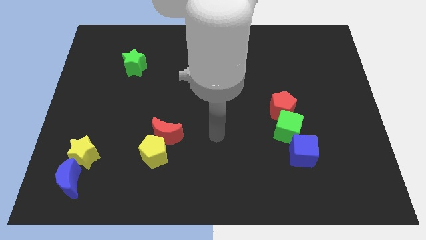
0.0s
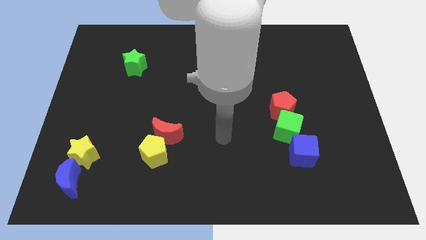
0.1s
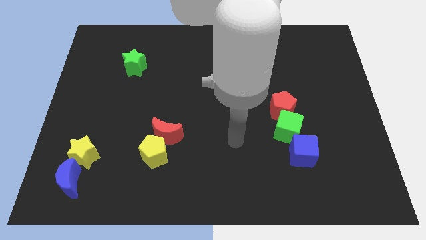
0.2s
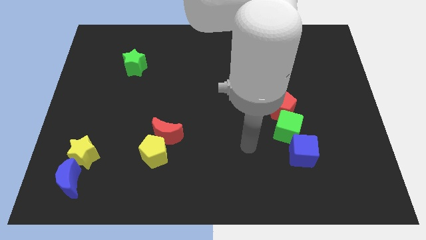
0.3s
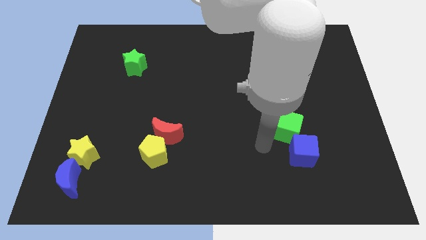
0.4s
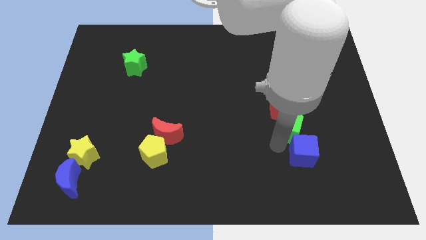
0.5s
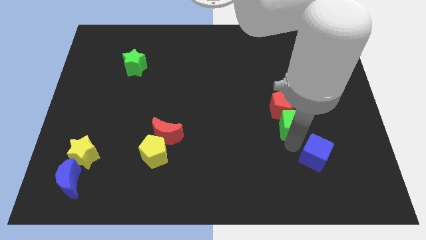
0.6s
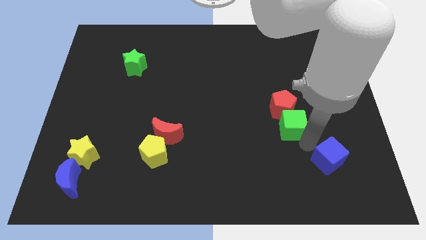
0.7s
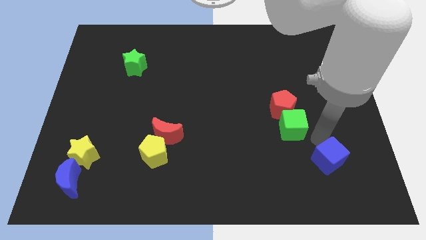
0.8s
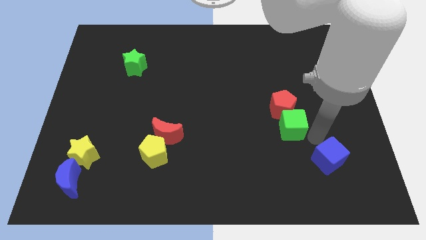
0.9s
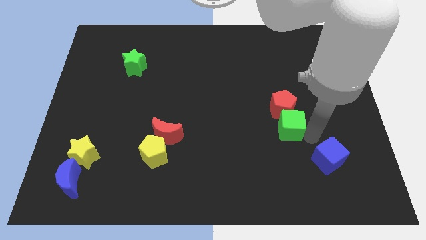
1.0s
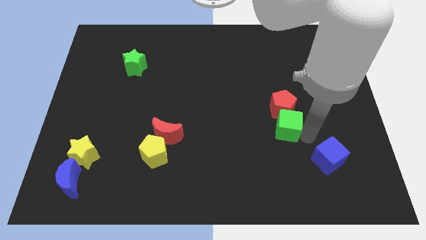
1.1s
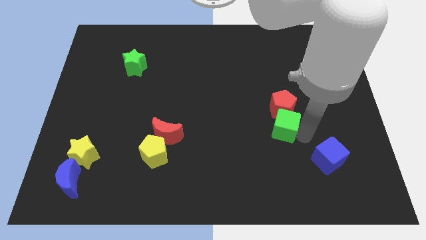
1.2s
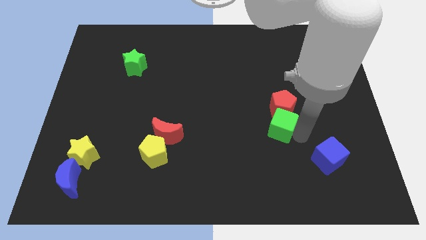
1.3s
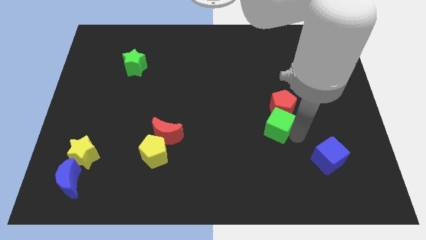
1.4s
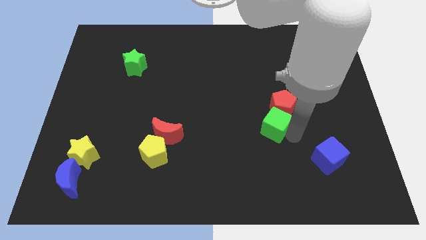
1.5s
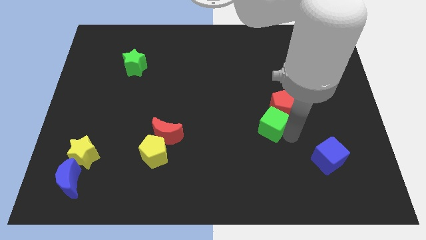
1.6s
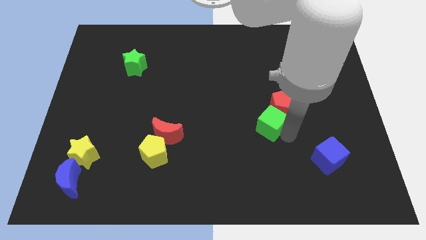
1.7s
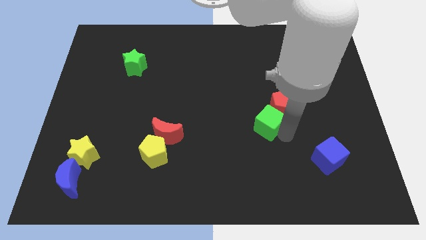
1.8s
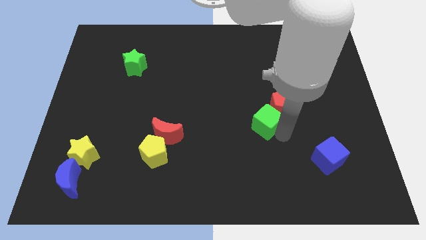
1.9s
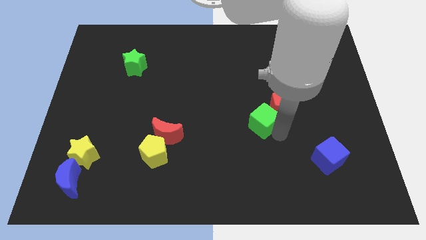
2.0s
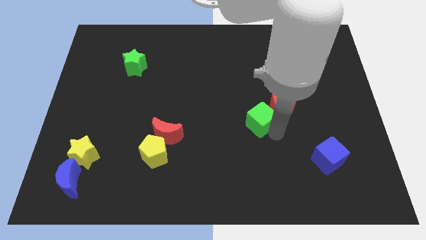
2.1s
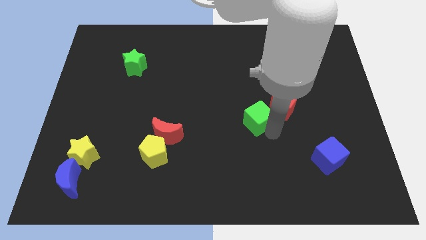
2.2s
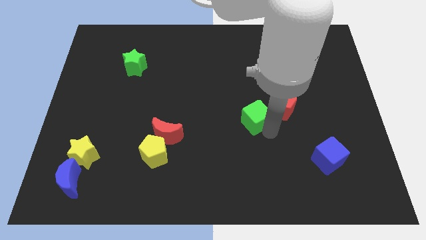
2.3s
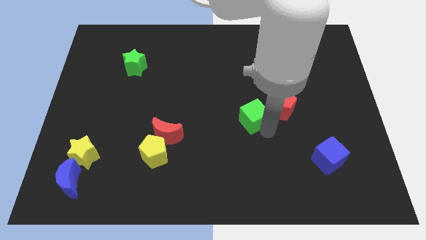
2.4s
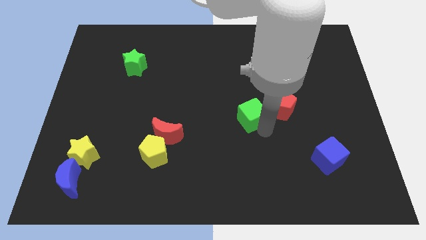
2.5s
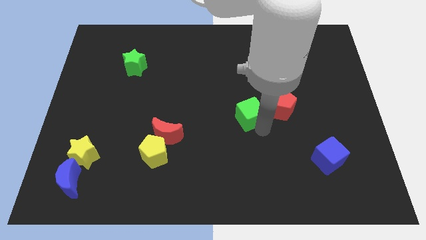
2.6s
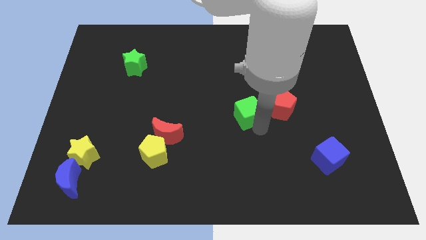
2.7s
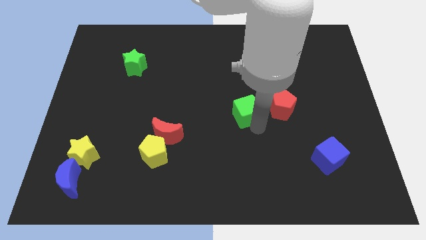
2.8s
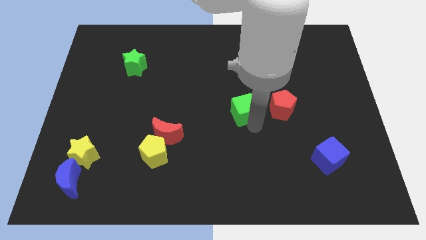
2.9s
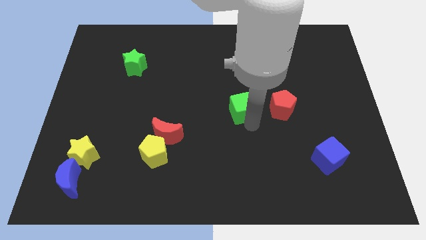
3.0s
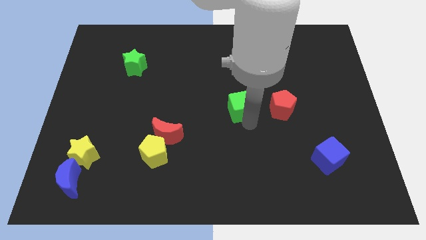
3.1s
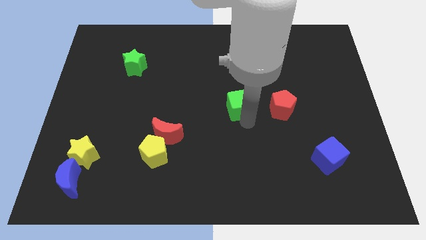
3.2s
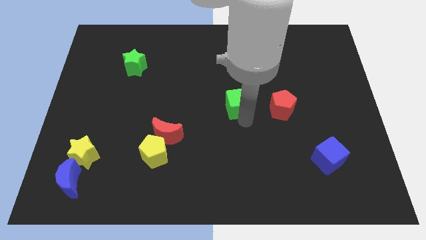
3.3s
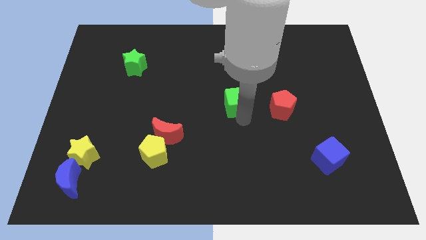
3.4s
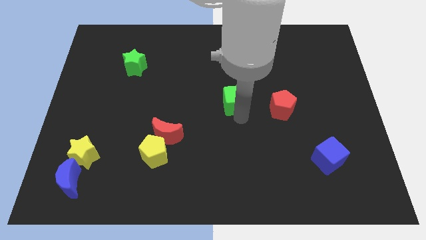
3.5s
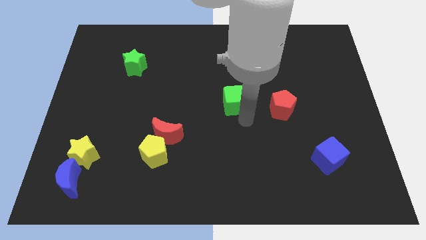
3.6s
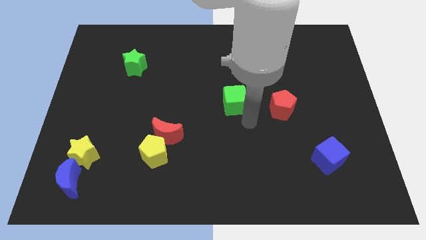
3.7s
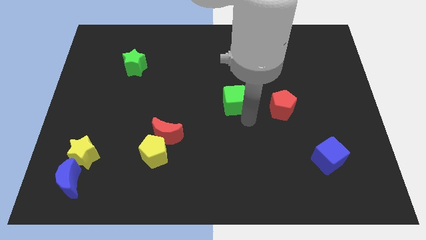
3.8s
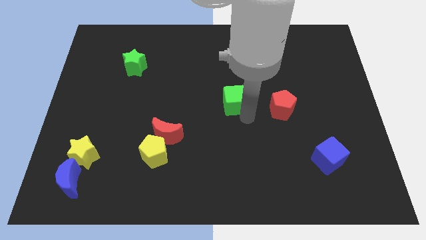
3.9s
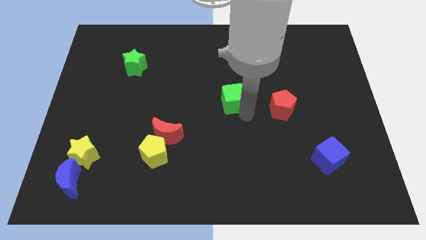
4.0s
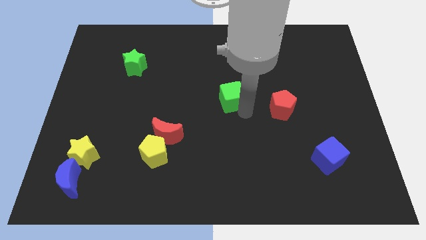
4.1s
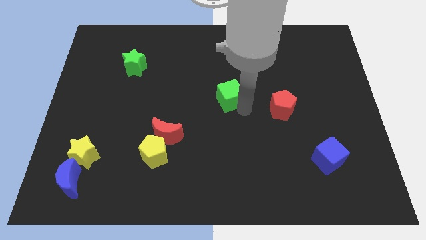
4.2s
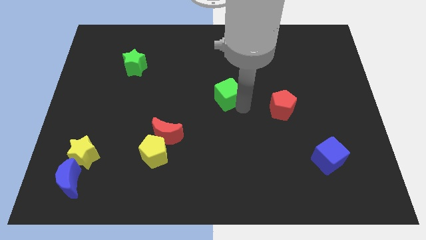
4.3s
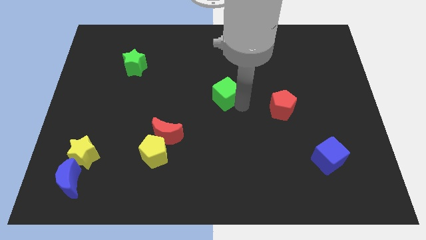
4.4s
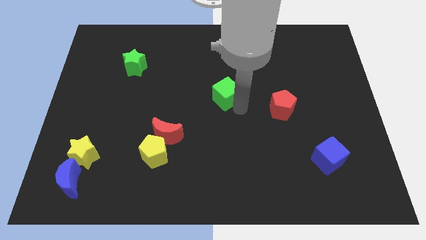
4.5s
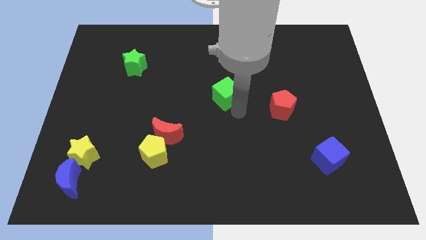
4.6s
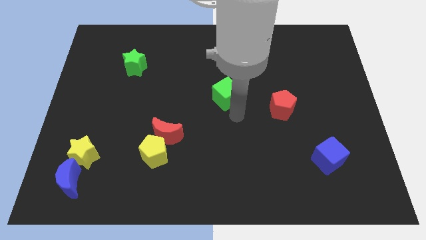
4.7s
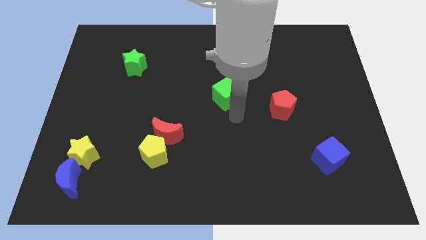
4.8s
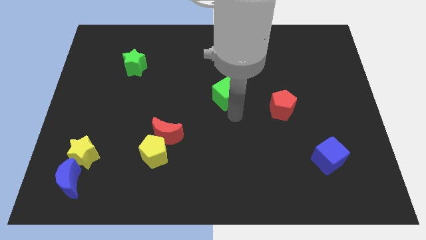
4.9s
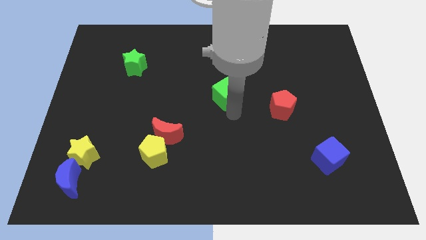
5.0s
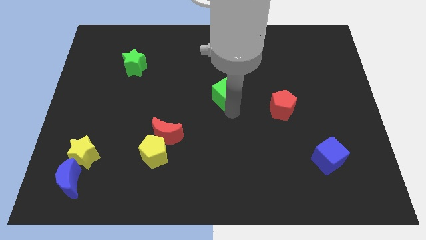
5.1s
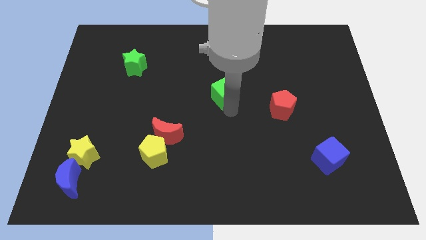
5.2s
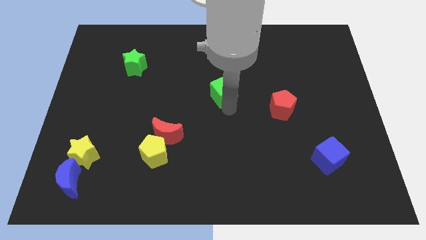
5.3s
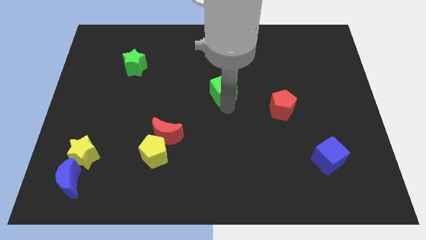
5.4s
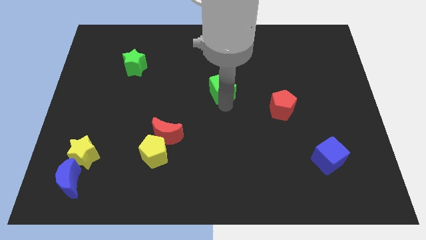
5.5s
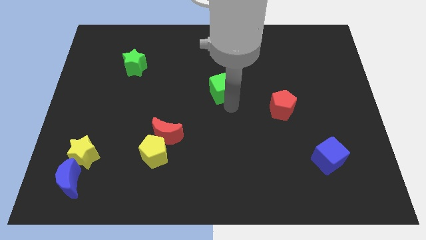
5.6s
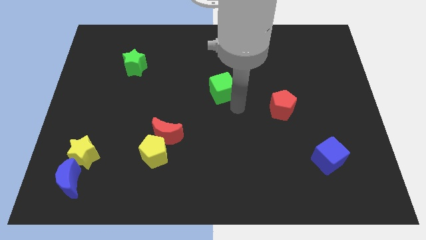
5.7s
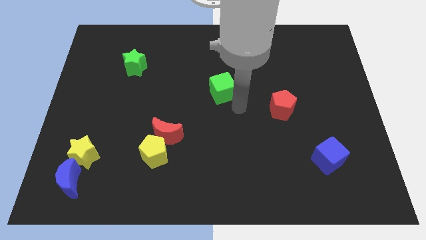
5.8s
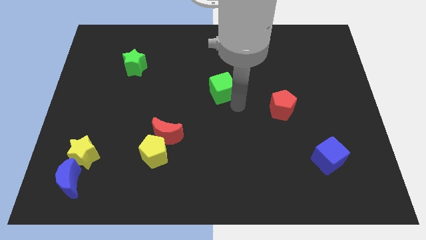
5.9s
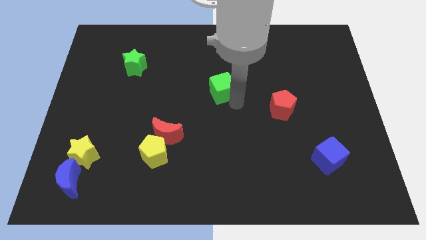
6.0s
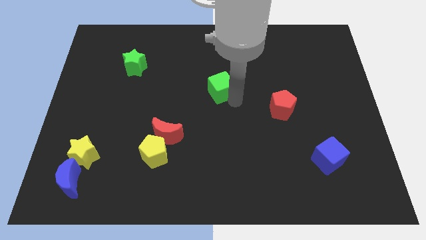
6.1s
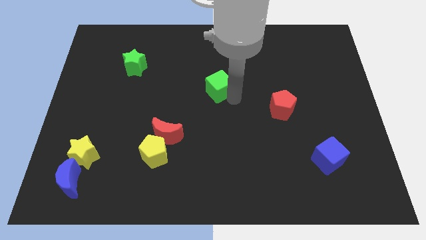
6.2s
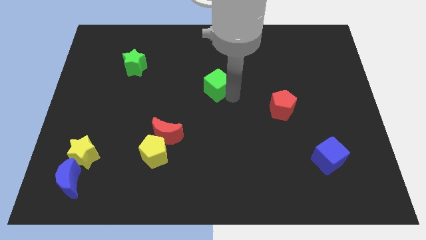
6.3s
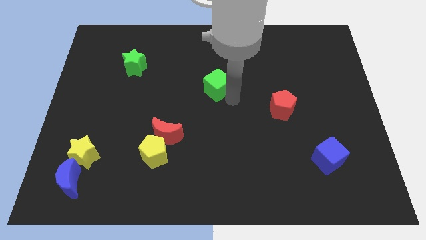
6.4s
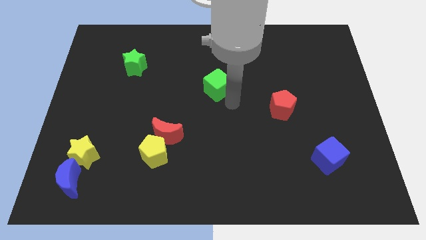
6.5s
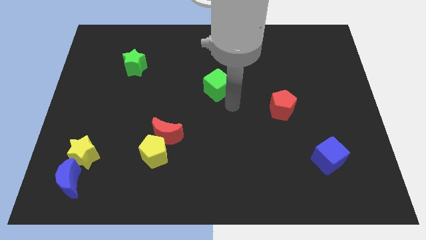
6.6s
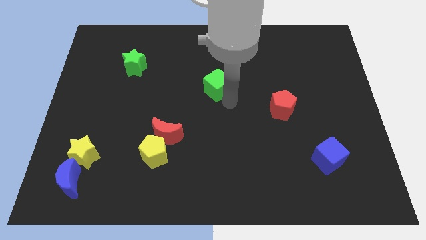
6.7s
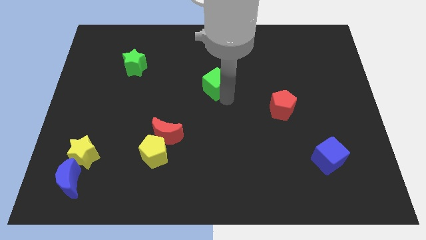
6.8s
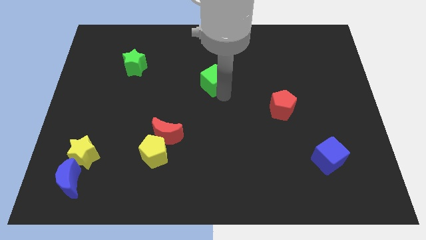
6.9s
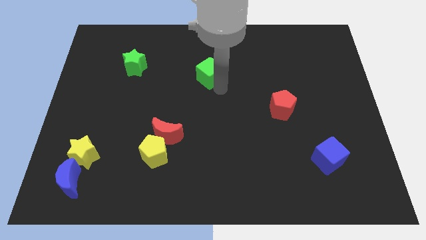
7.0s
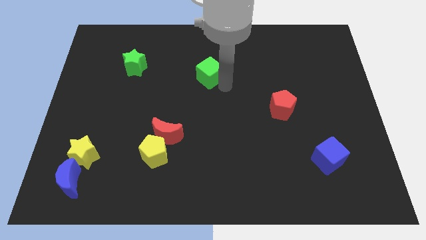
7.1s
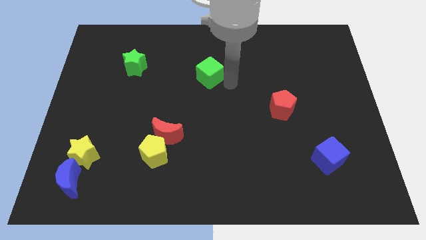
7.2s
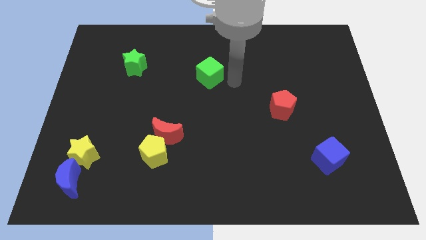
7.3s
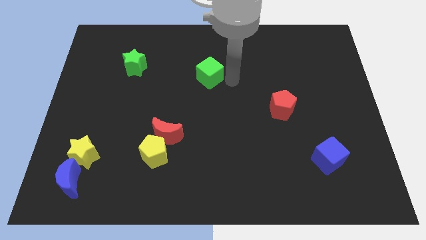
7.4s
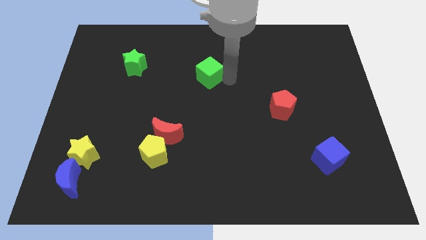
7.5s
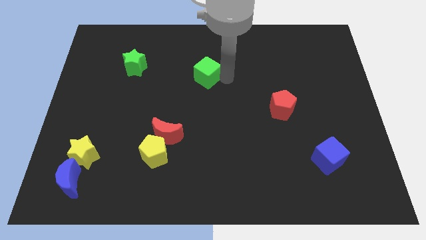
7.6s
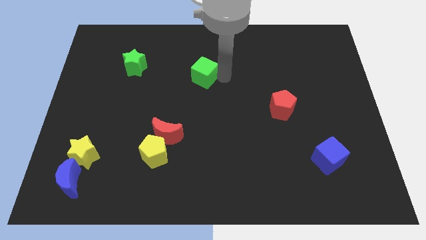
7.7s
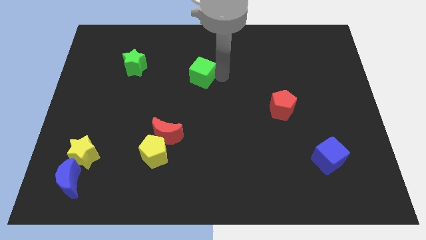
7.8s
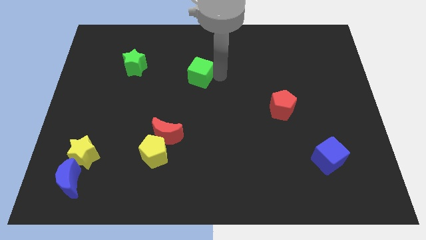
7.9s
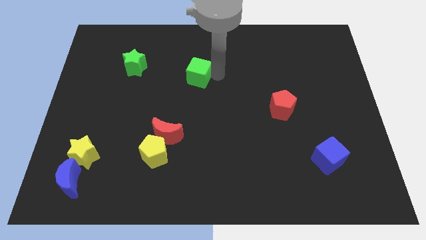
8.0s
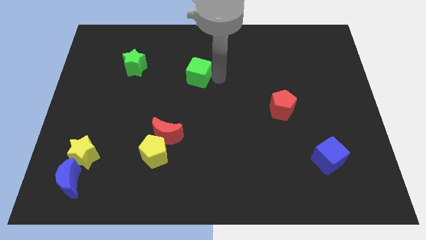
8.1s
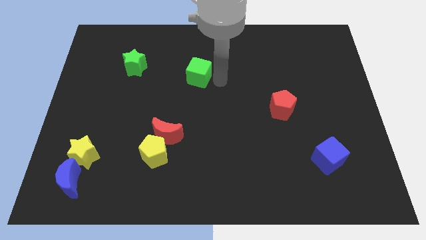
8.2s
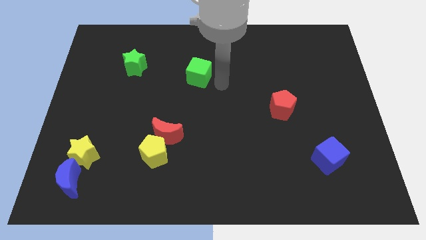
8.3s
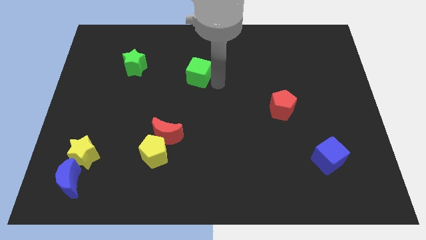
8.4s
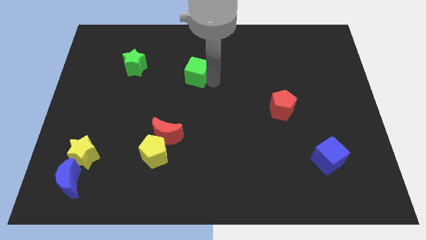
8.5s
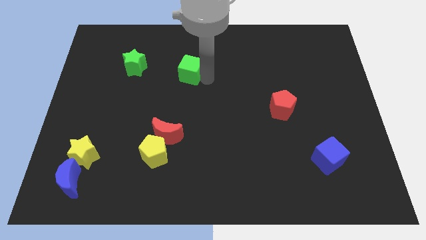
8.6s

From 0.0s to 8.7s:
slide the green cube to the right side of the green star
